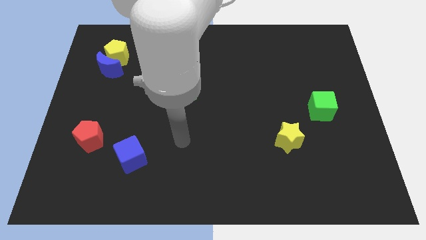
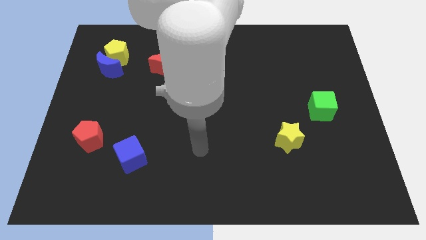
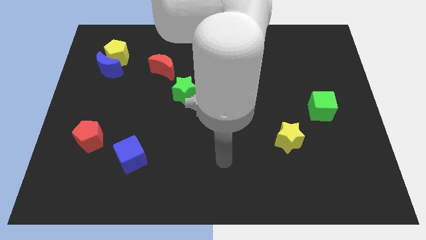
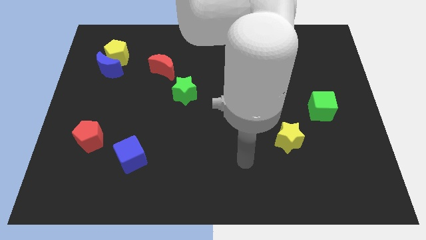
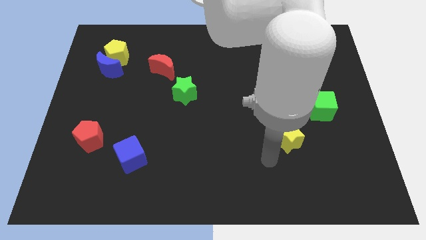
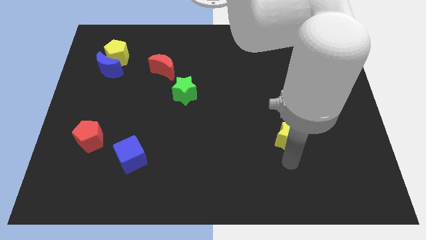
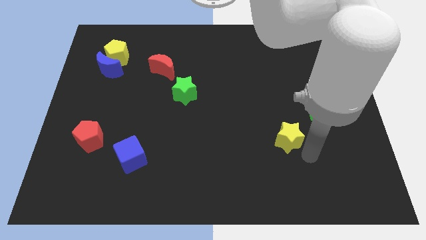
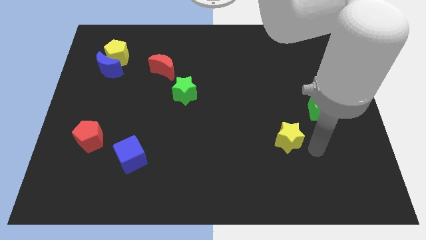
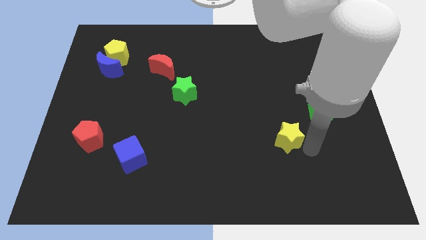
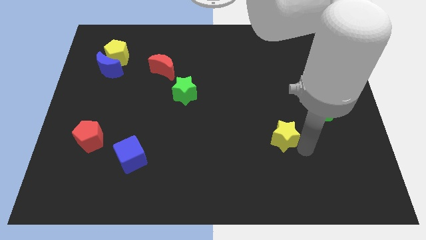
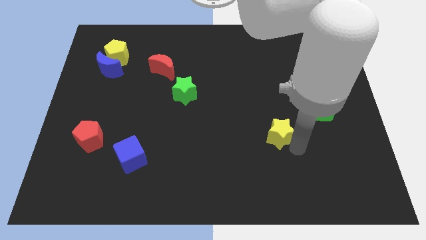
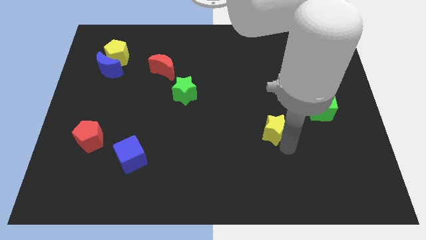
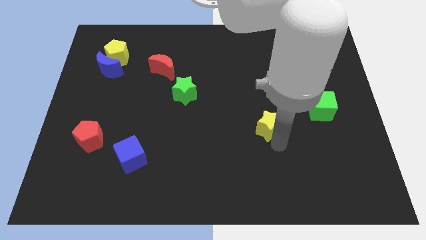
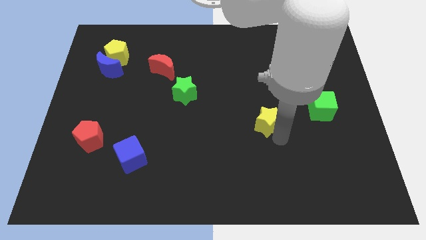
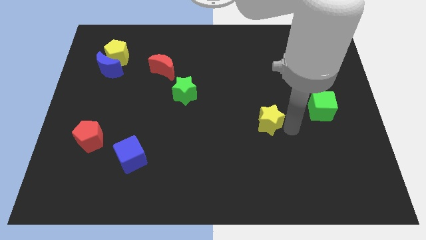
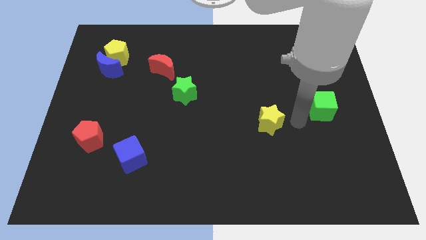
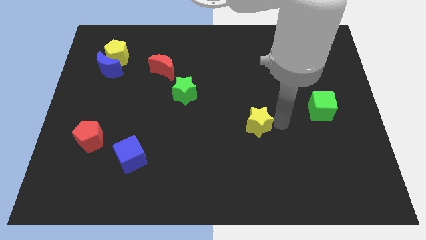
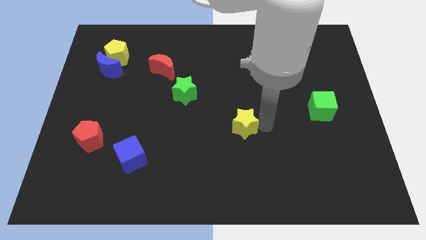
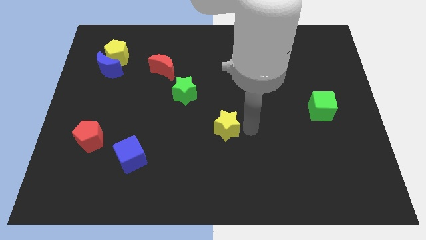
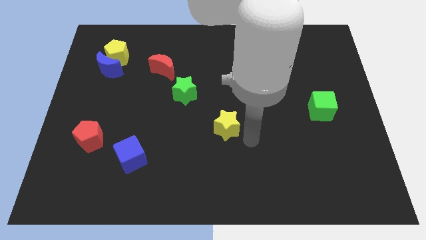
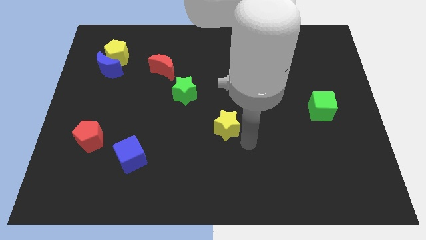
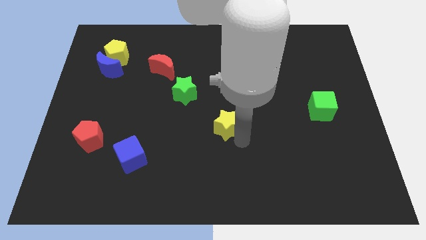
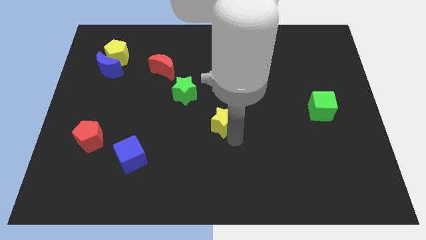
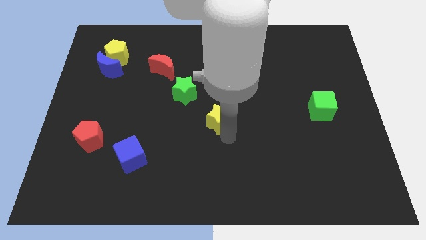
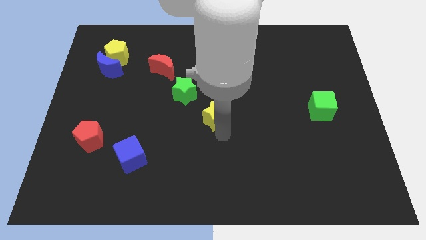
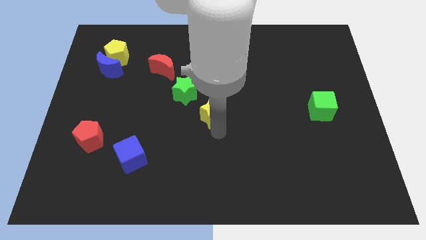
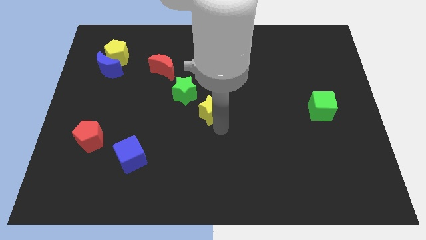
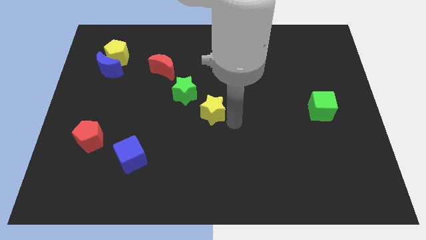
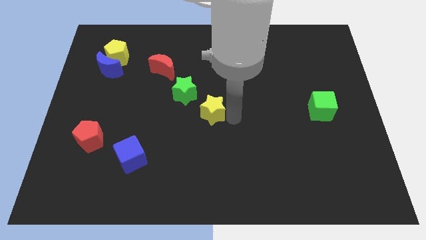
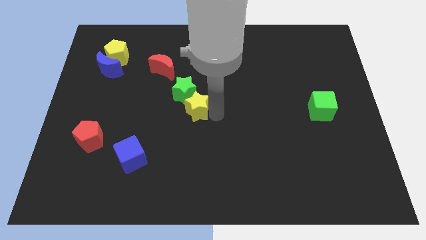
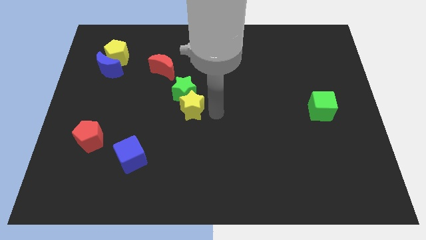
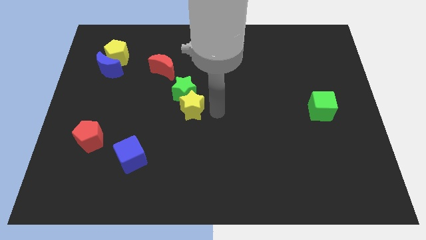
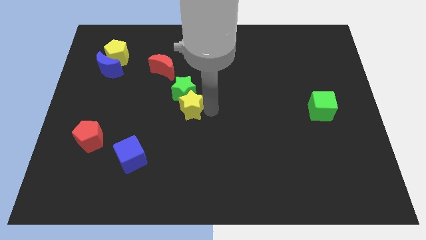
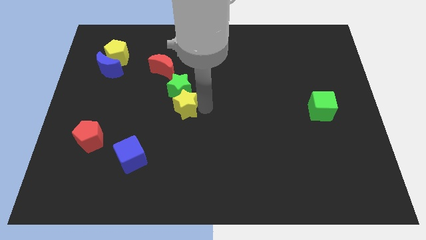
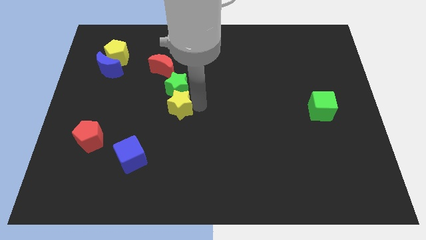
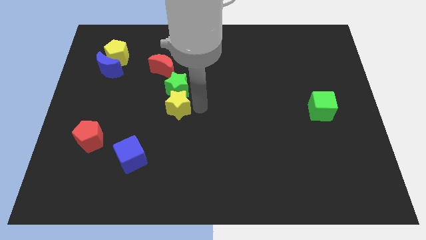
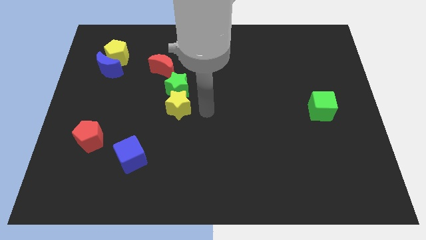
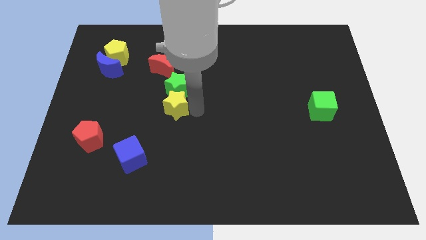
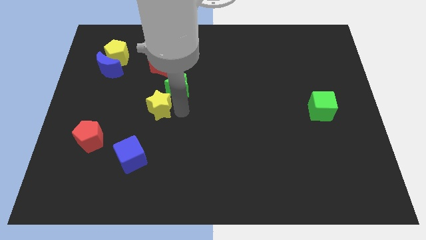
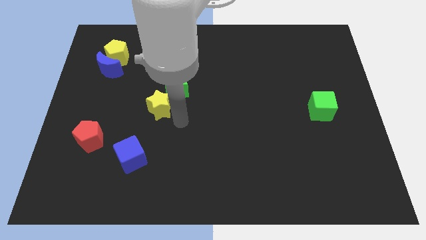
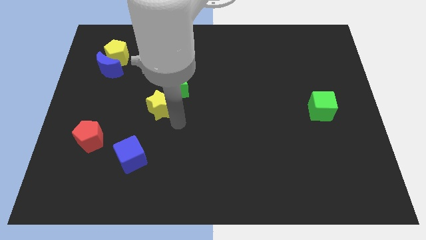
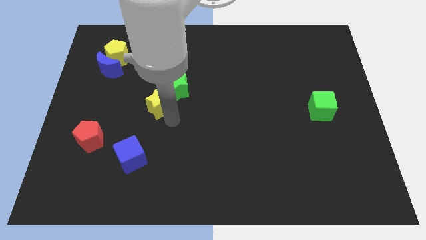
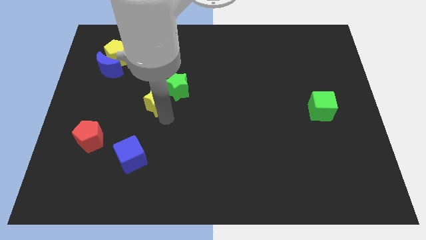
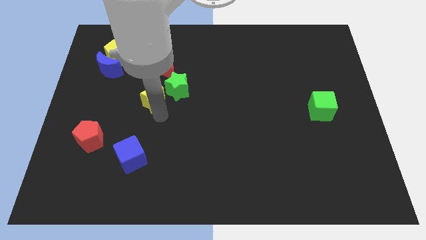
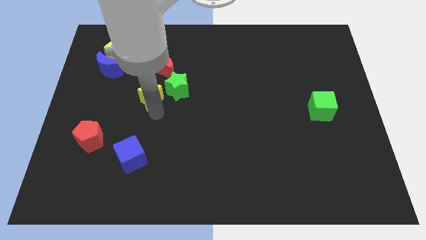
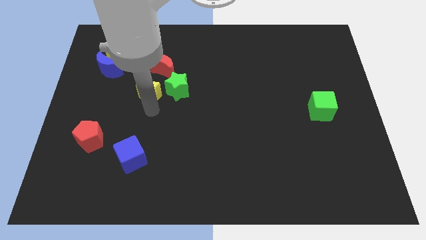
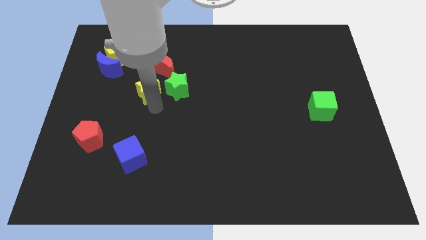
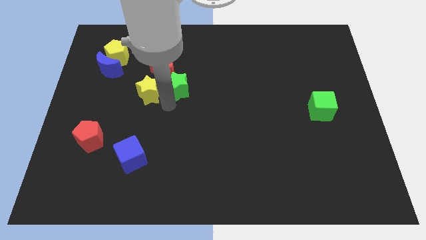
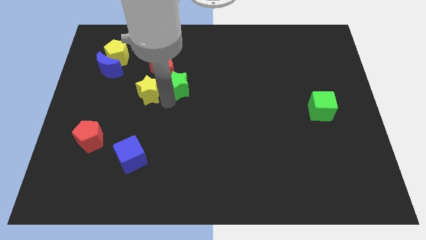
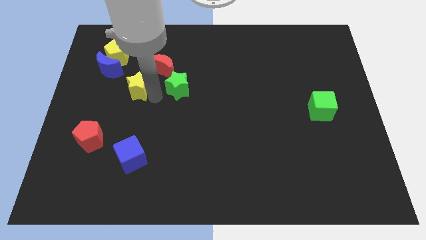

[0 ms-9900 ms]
put the yellow star diagonally down and to the right of the blue moon

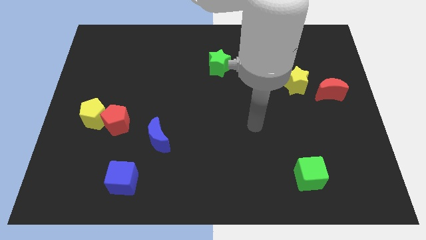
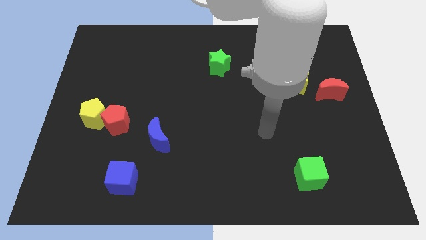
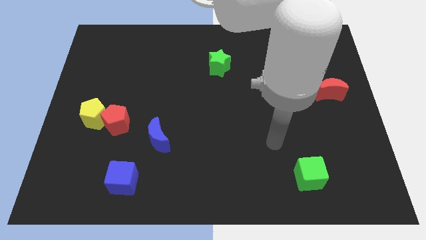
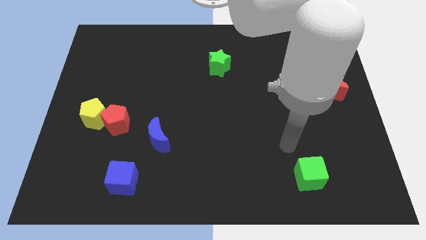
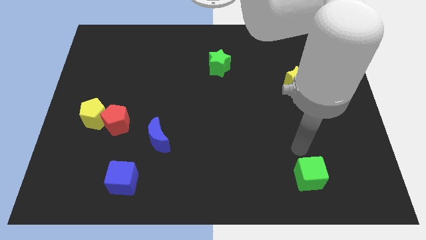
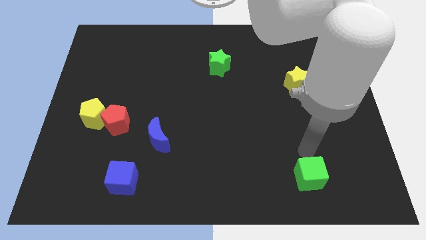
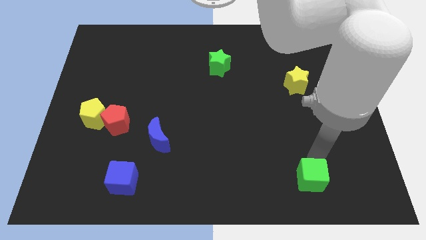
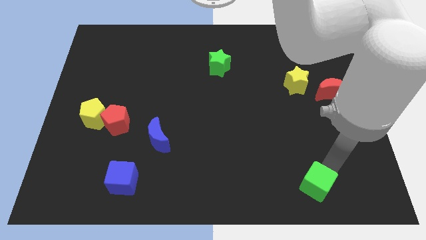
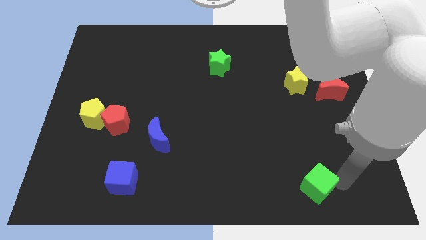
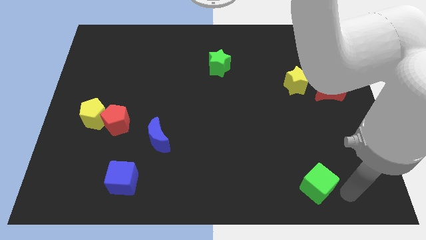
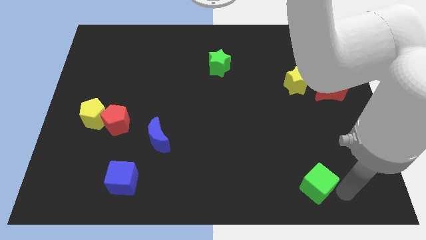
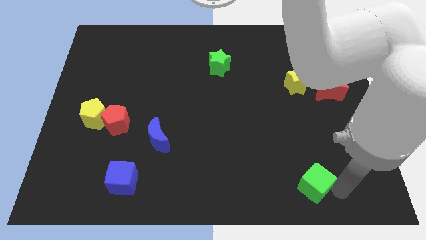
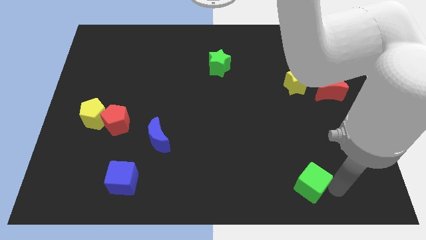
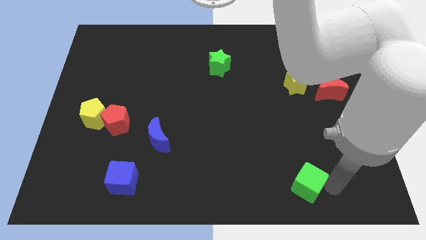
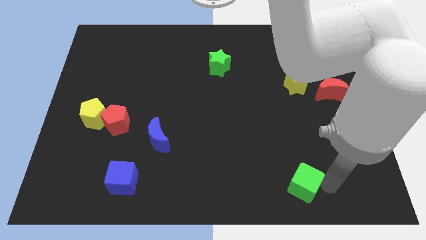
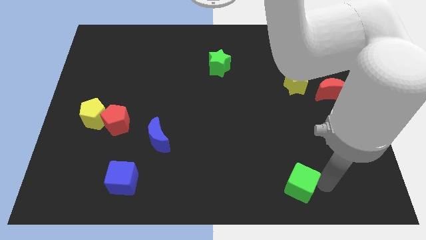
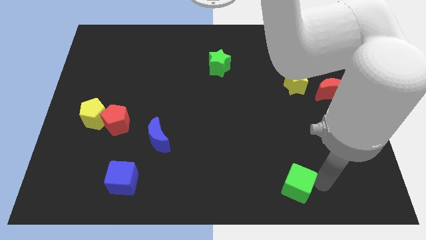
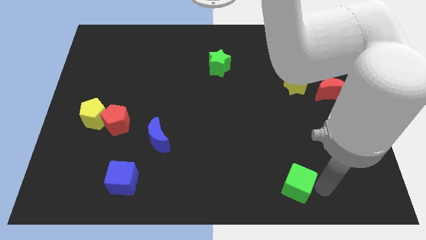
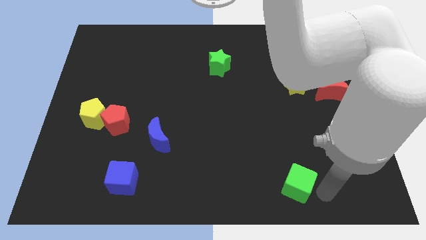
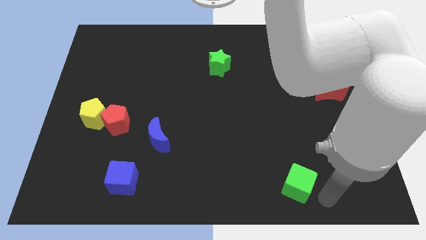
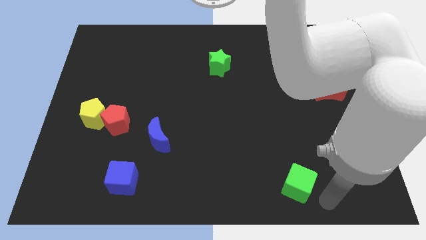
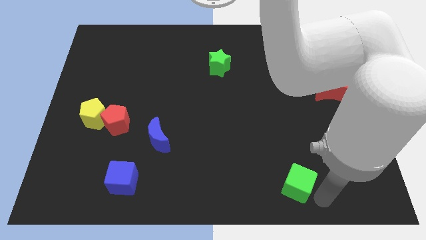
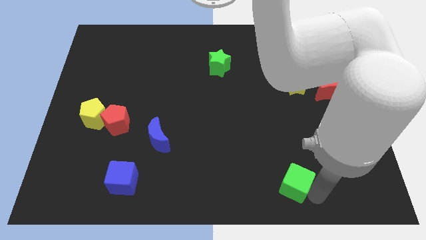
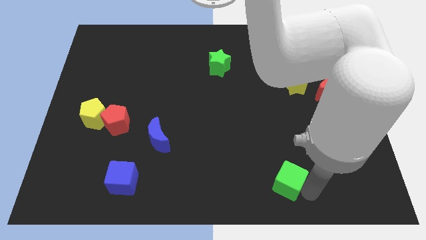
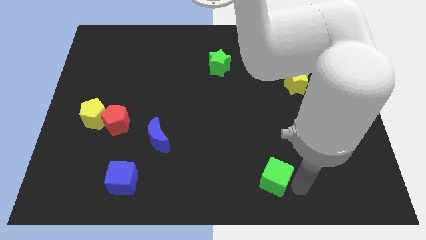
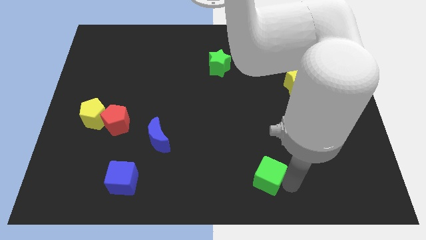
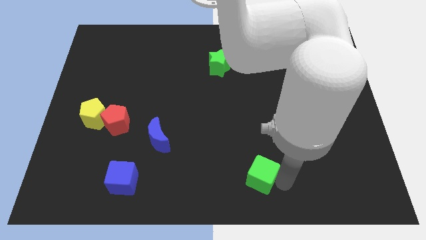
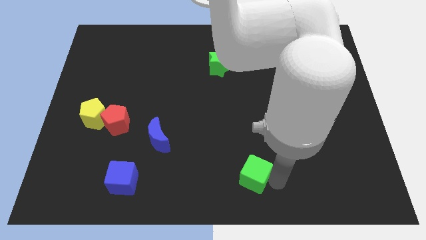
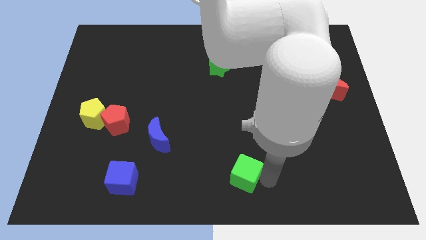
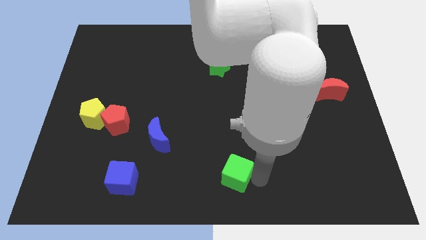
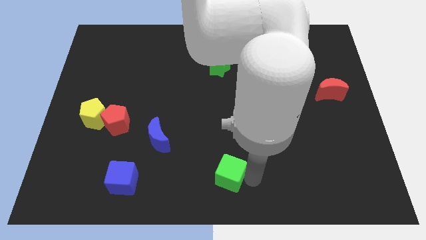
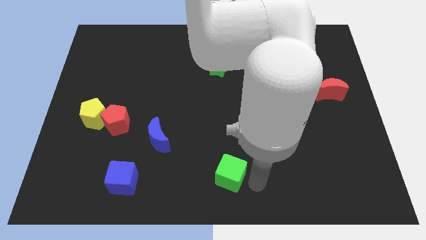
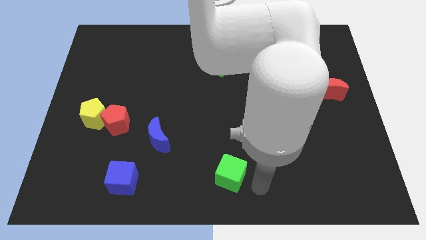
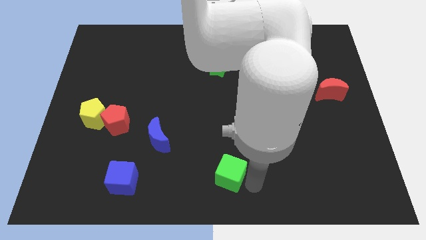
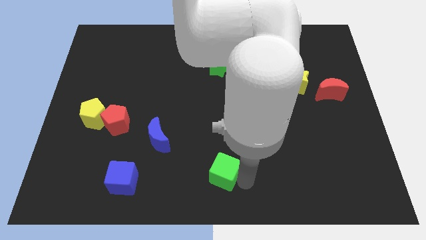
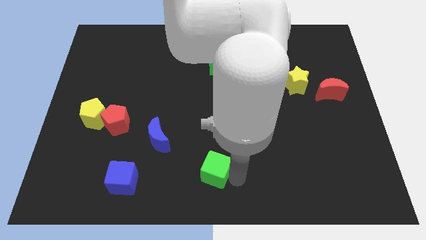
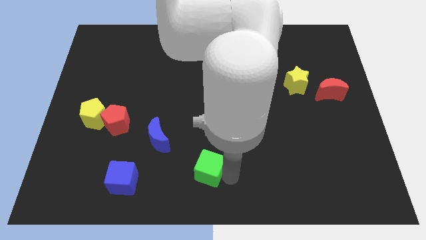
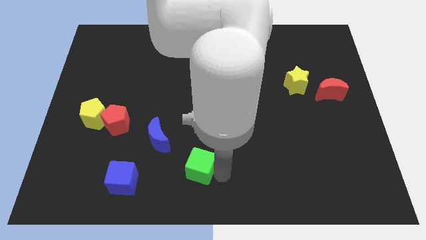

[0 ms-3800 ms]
move the green cube to the bottom right of the blue moon
